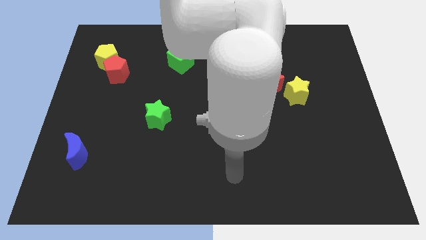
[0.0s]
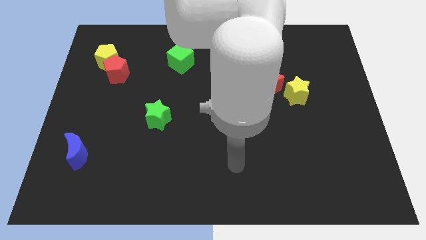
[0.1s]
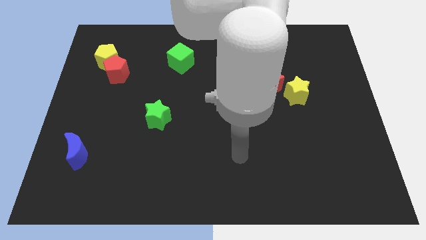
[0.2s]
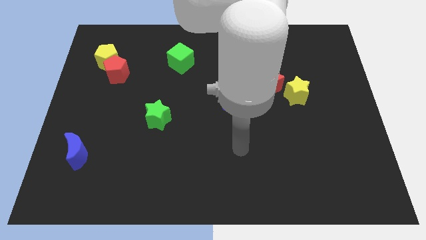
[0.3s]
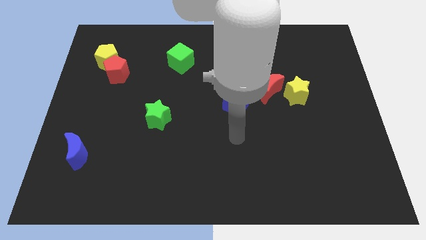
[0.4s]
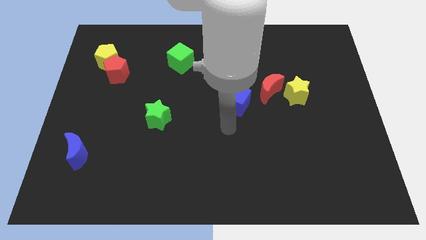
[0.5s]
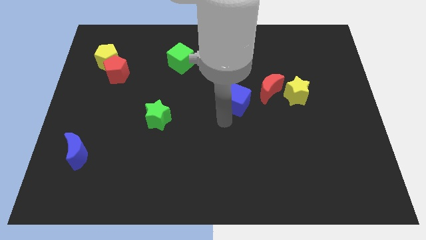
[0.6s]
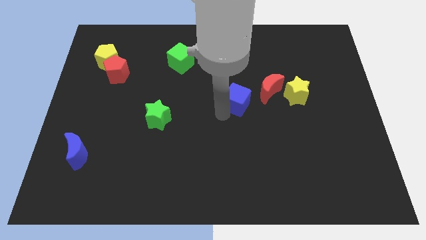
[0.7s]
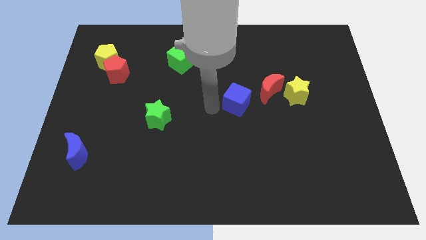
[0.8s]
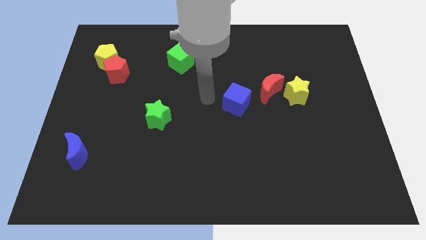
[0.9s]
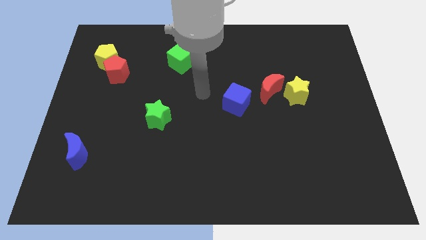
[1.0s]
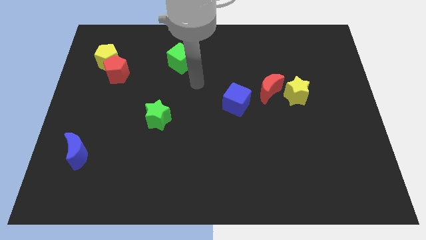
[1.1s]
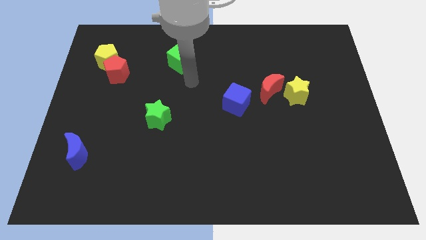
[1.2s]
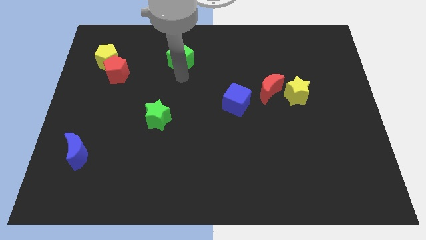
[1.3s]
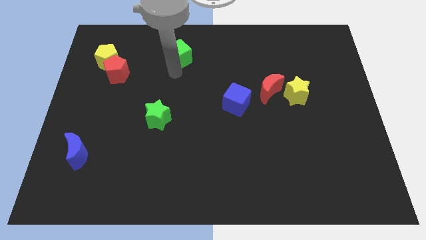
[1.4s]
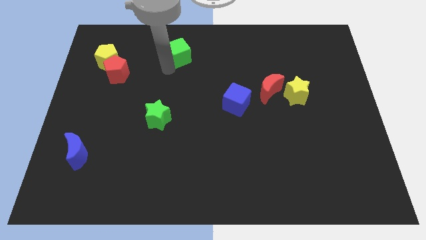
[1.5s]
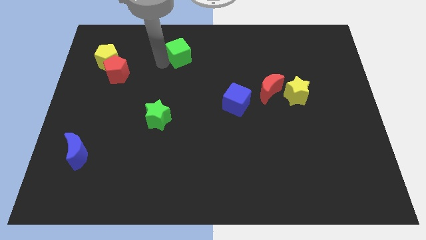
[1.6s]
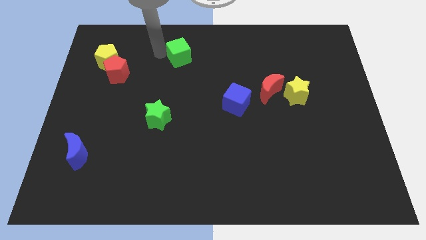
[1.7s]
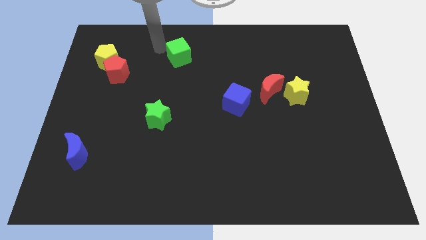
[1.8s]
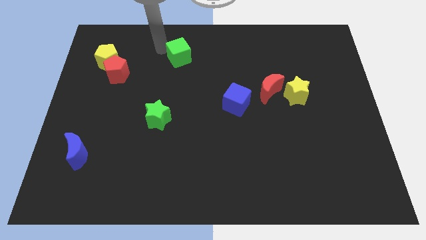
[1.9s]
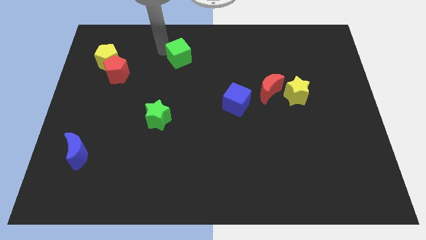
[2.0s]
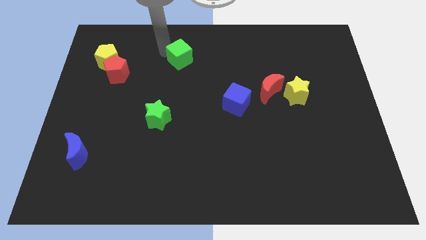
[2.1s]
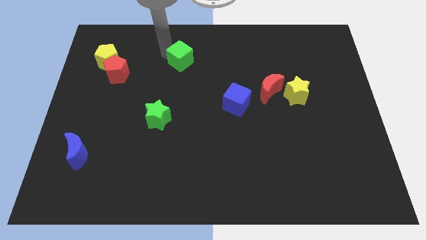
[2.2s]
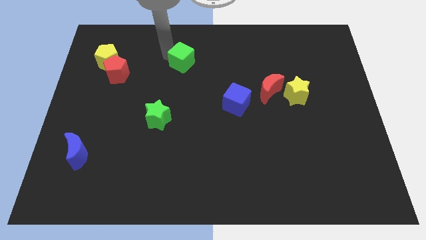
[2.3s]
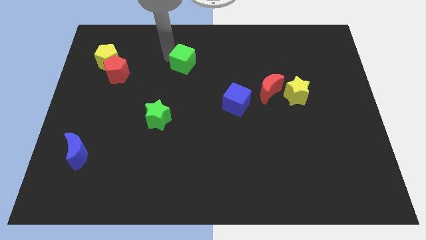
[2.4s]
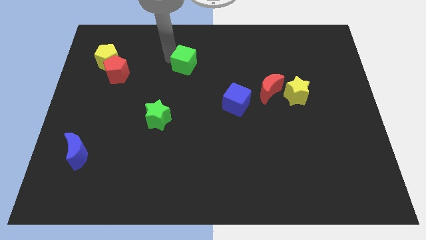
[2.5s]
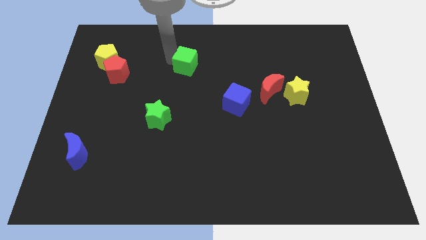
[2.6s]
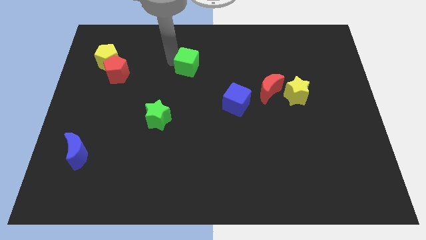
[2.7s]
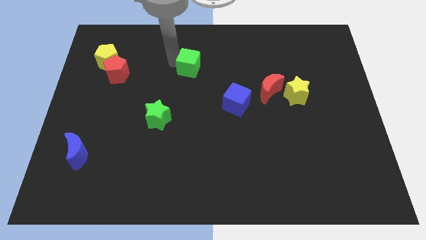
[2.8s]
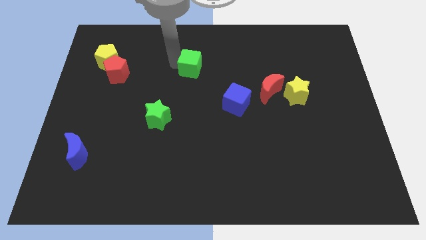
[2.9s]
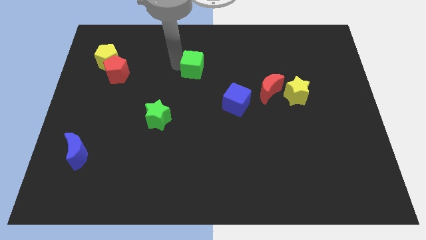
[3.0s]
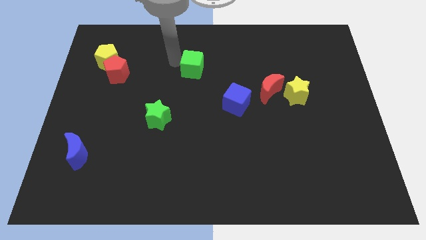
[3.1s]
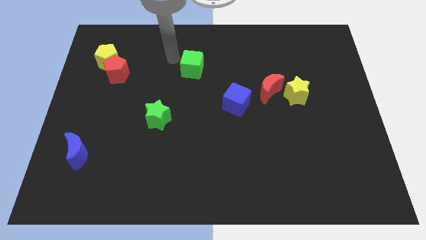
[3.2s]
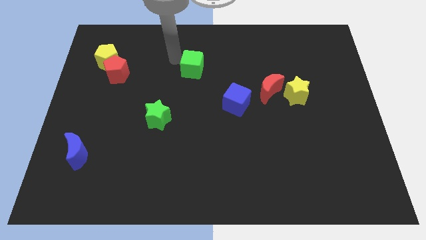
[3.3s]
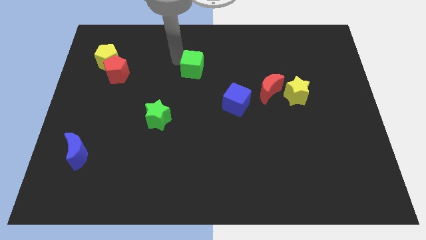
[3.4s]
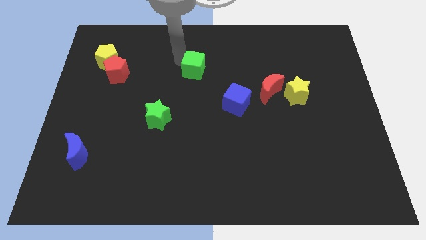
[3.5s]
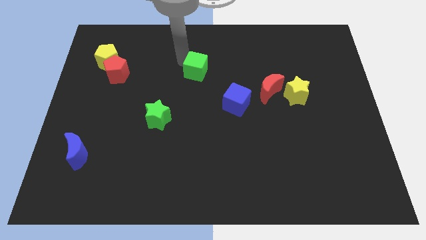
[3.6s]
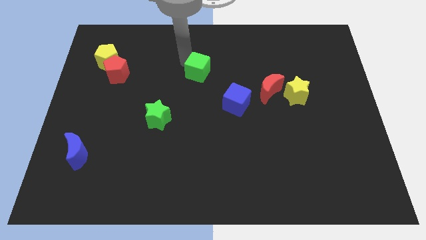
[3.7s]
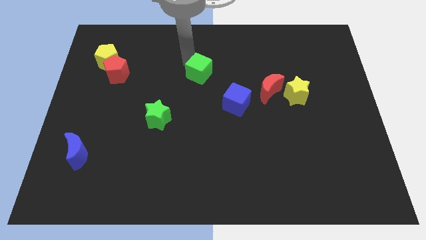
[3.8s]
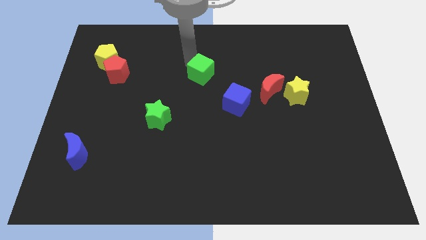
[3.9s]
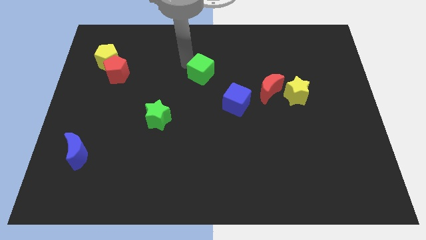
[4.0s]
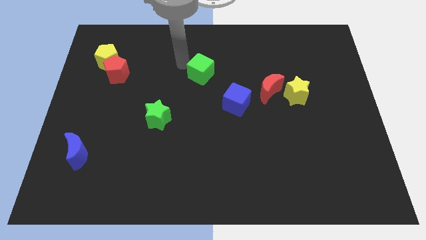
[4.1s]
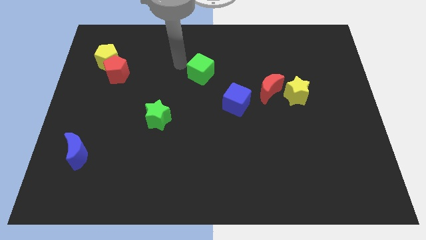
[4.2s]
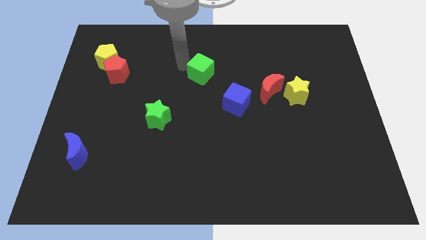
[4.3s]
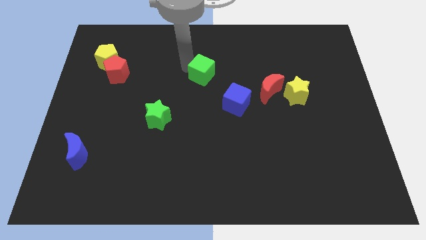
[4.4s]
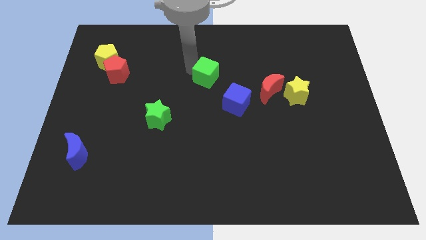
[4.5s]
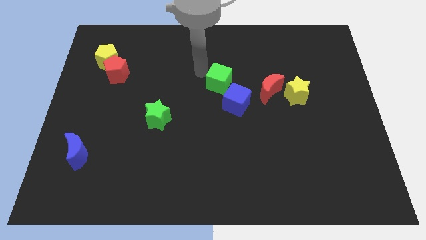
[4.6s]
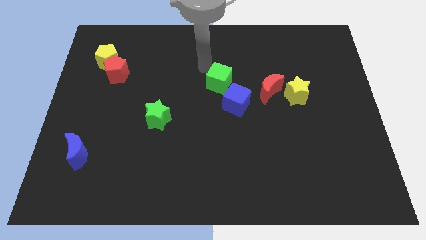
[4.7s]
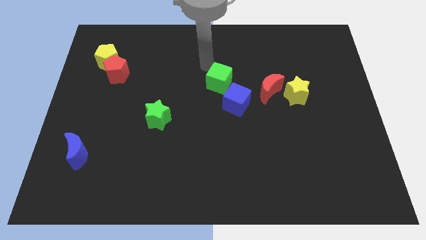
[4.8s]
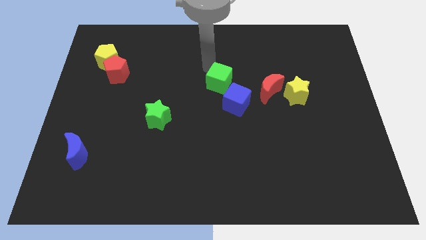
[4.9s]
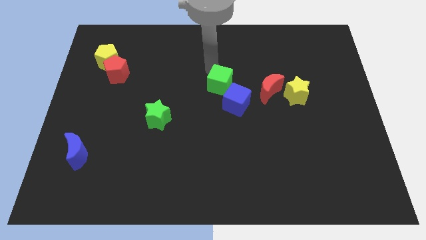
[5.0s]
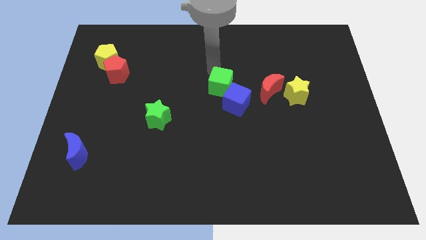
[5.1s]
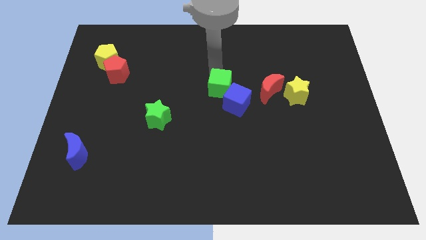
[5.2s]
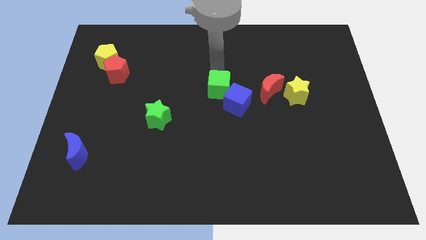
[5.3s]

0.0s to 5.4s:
move the green cube towards the blue cube

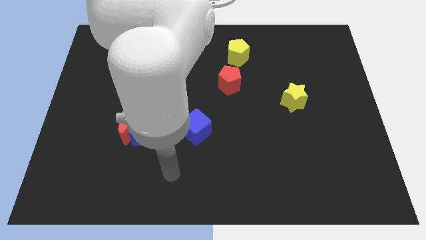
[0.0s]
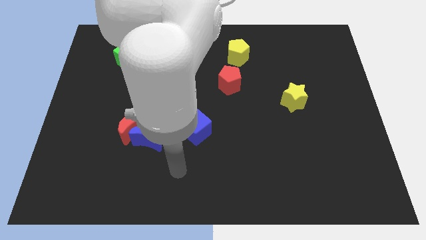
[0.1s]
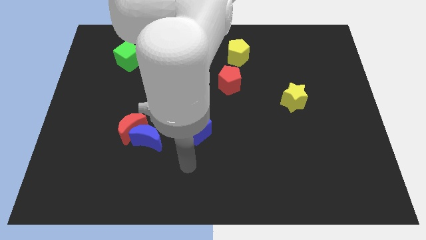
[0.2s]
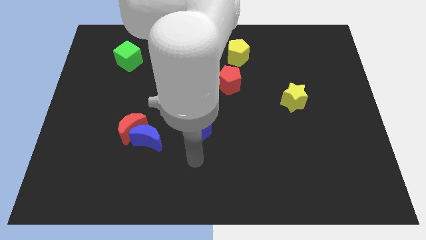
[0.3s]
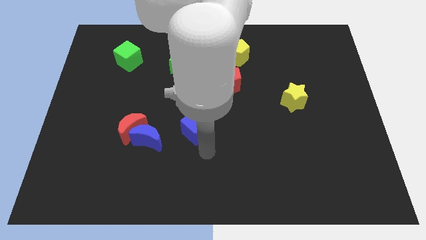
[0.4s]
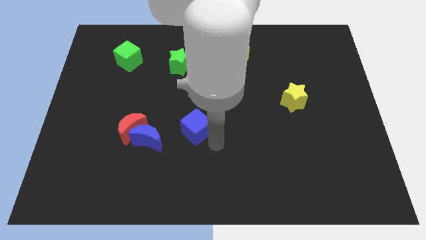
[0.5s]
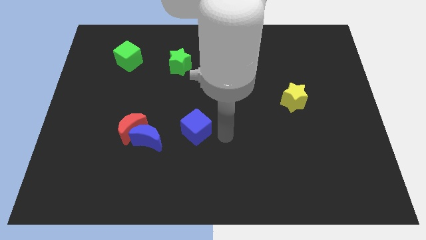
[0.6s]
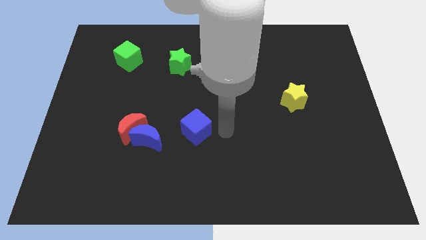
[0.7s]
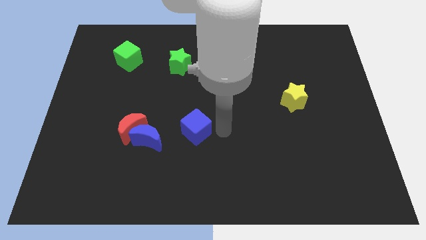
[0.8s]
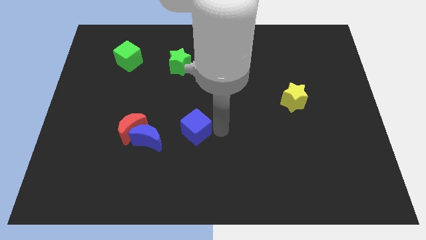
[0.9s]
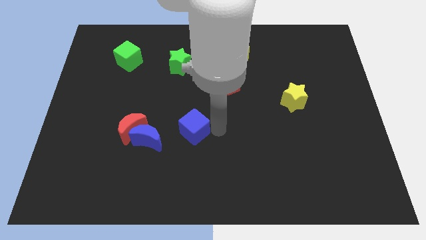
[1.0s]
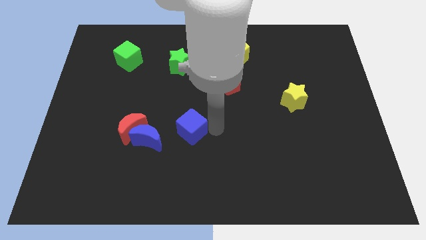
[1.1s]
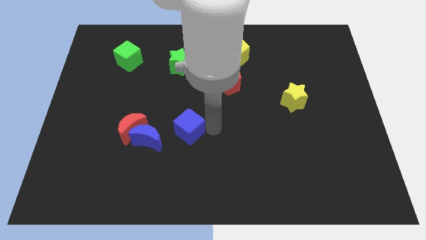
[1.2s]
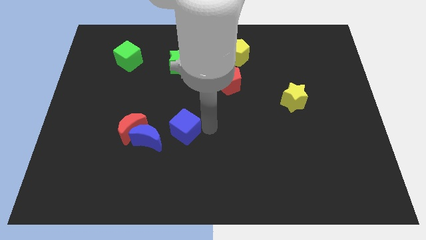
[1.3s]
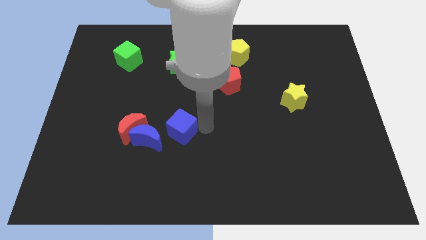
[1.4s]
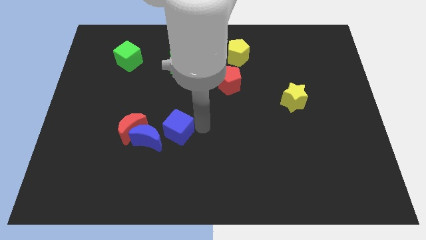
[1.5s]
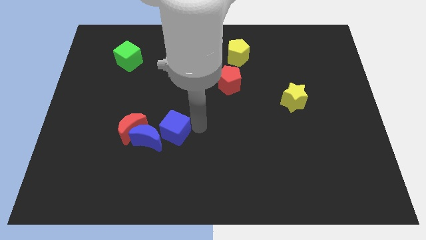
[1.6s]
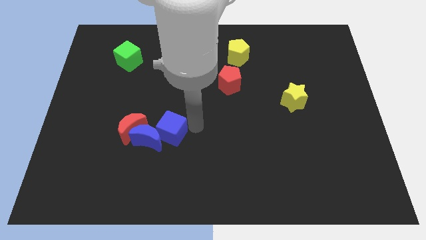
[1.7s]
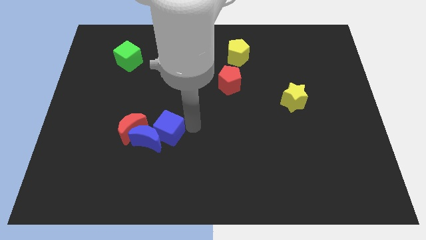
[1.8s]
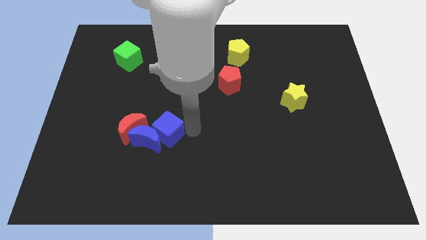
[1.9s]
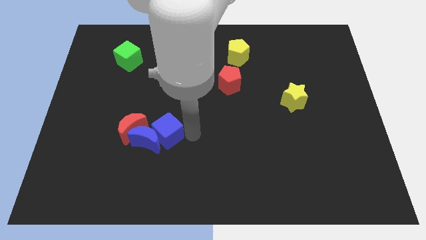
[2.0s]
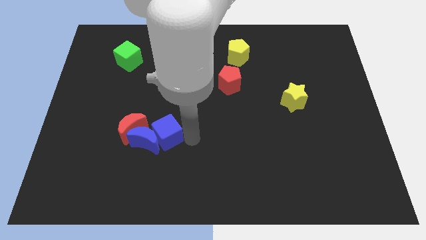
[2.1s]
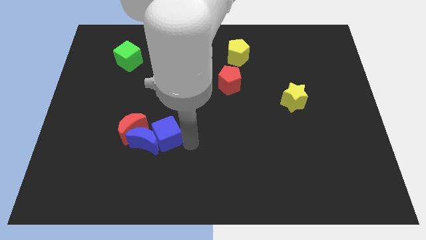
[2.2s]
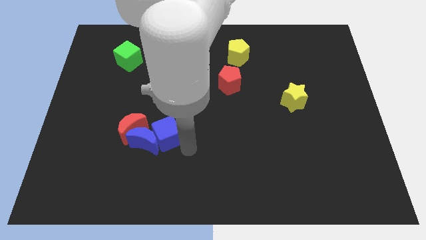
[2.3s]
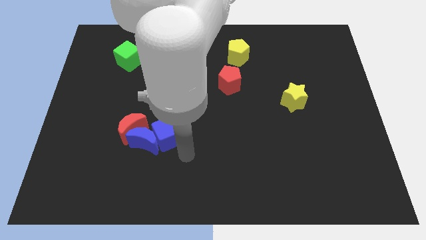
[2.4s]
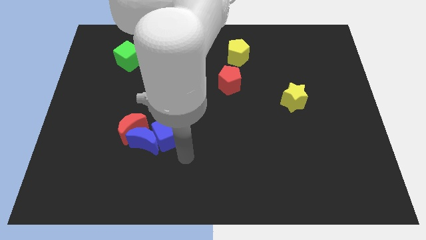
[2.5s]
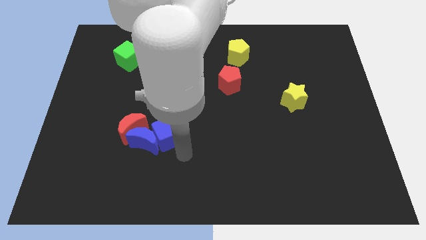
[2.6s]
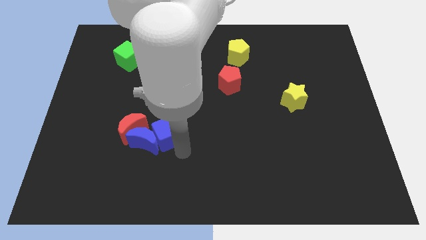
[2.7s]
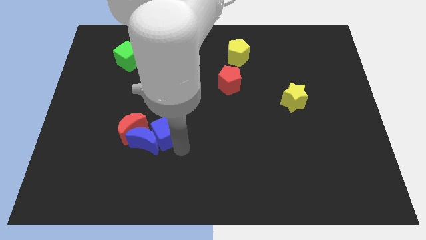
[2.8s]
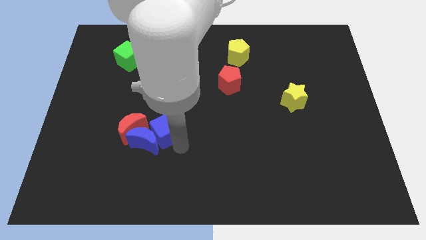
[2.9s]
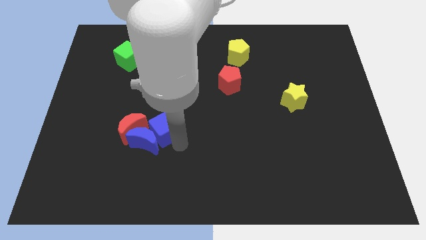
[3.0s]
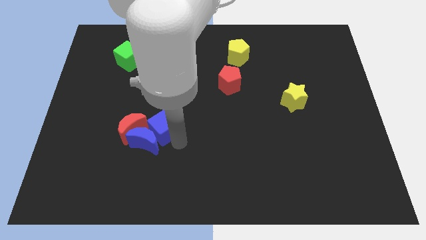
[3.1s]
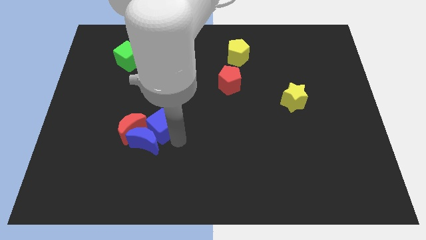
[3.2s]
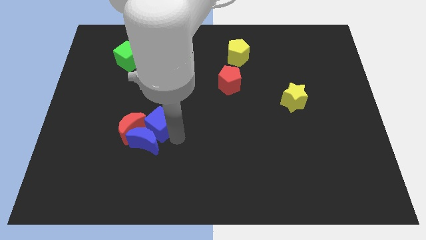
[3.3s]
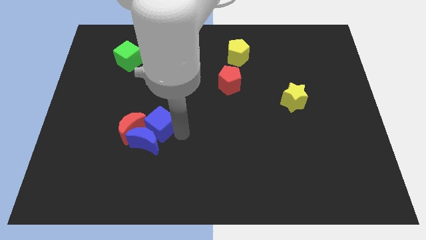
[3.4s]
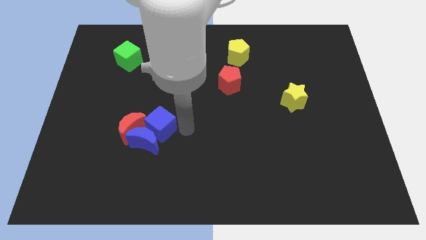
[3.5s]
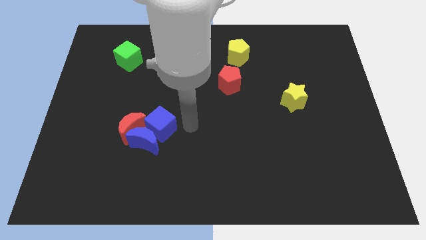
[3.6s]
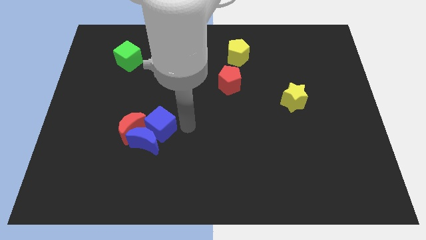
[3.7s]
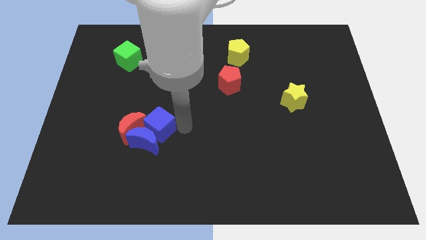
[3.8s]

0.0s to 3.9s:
put the blue cube to the red moon
